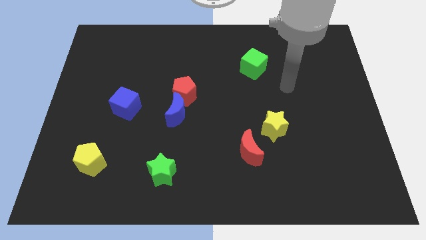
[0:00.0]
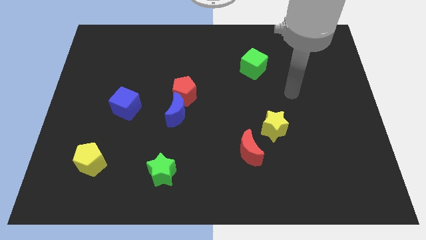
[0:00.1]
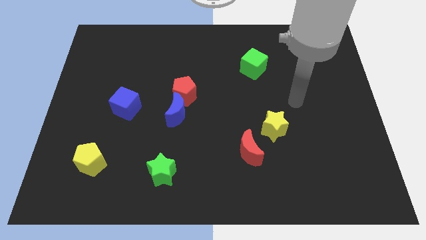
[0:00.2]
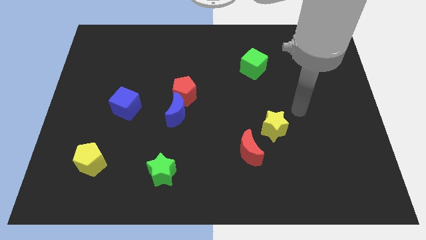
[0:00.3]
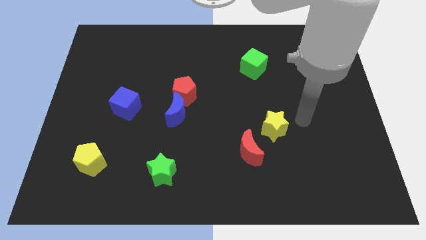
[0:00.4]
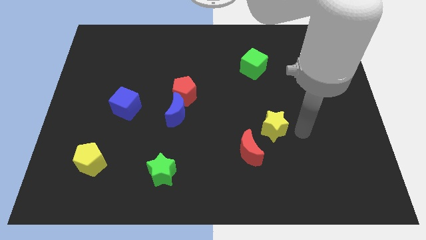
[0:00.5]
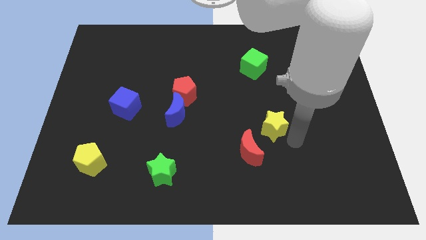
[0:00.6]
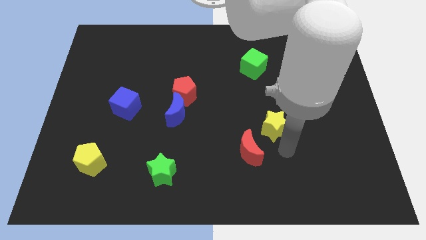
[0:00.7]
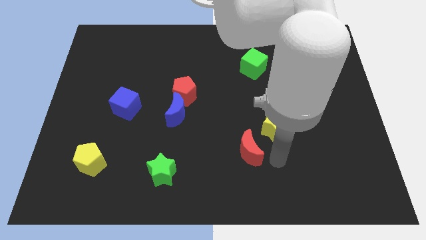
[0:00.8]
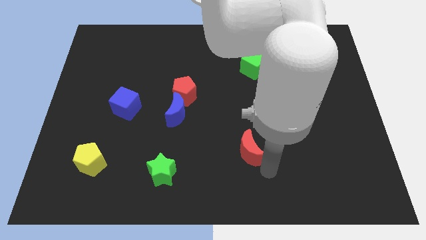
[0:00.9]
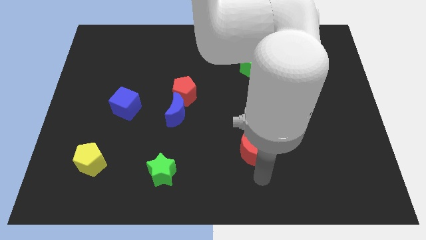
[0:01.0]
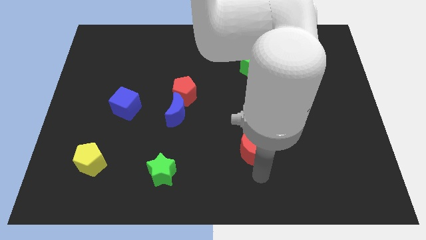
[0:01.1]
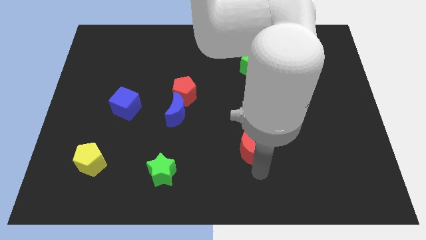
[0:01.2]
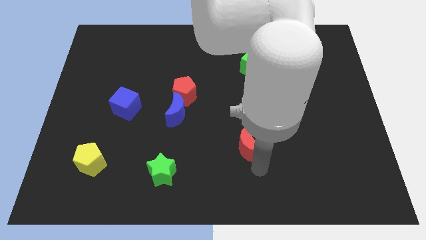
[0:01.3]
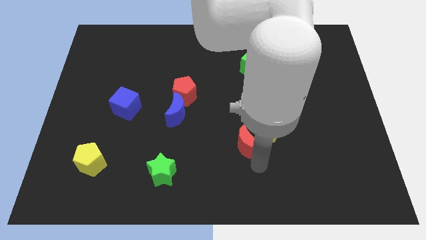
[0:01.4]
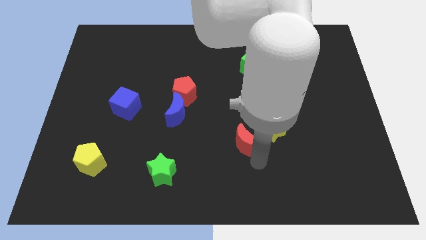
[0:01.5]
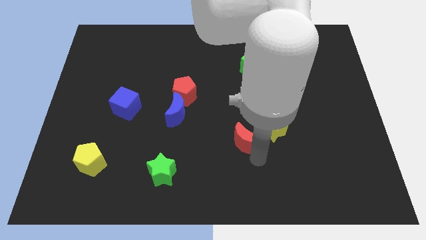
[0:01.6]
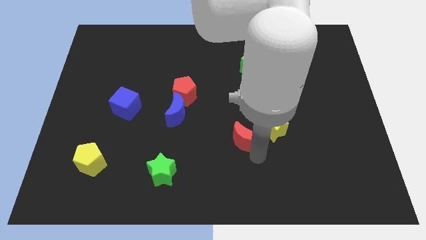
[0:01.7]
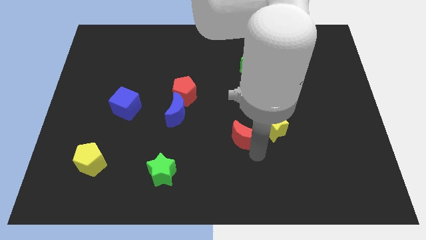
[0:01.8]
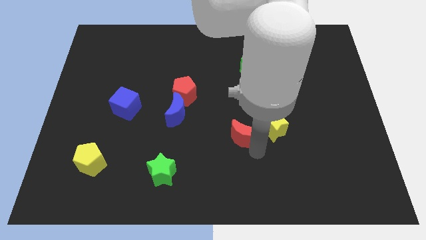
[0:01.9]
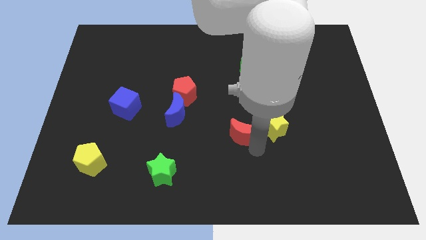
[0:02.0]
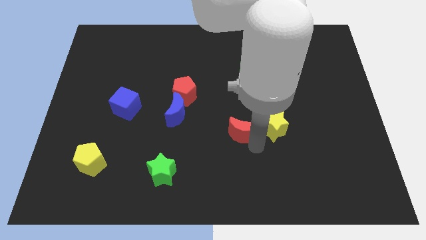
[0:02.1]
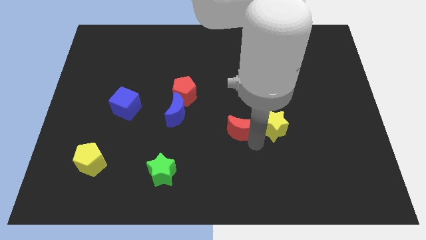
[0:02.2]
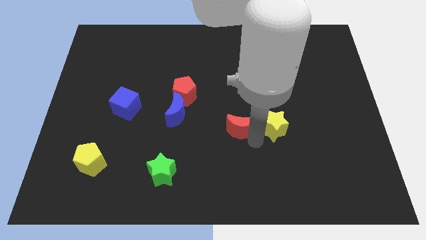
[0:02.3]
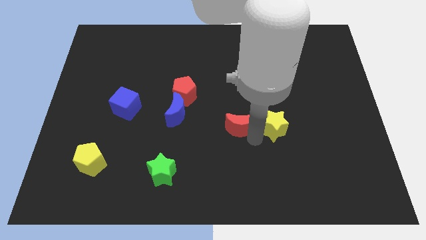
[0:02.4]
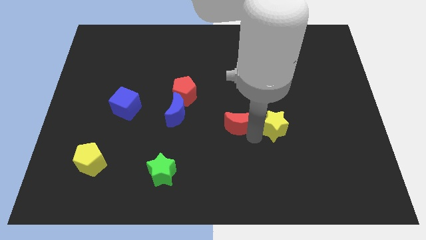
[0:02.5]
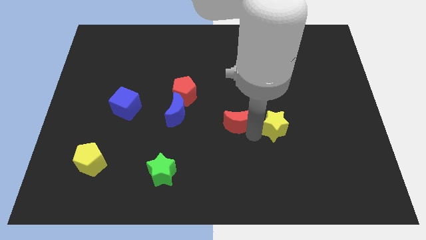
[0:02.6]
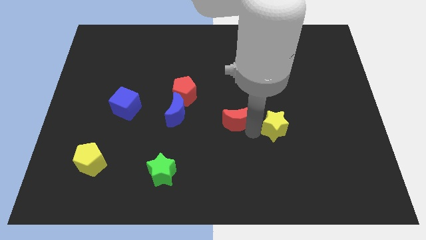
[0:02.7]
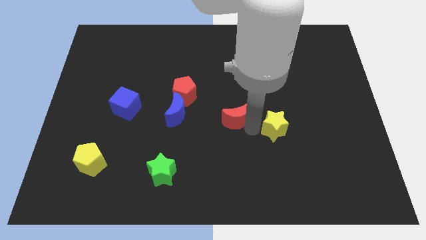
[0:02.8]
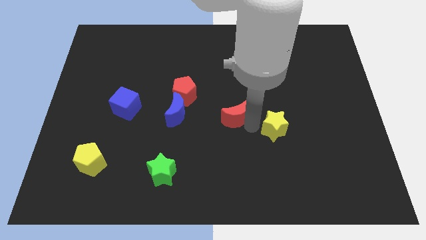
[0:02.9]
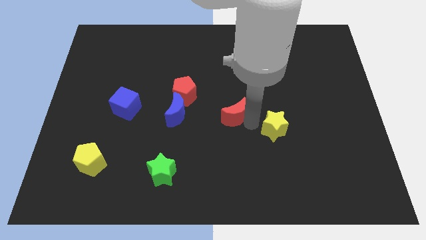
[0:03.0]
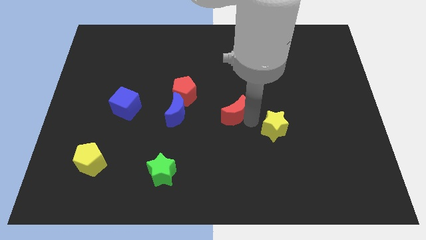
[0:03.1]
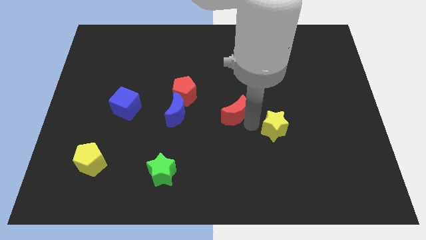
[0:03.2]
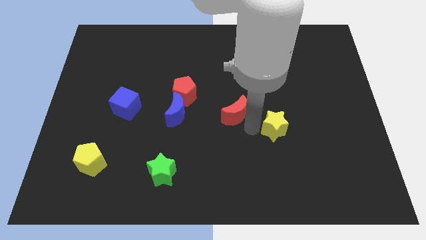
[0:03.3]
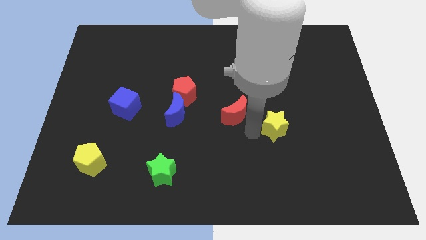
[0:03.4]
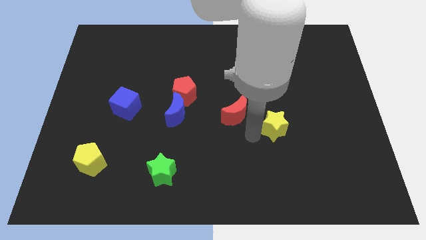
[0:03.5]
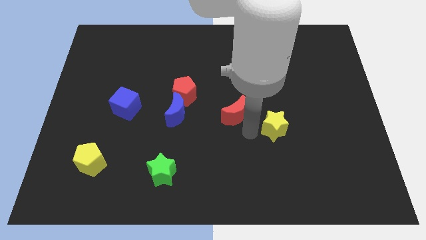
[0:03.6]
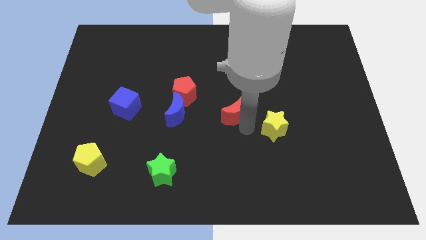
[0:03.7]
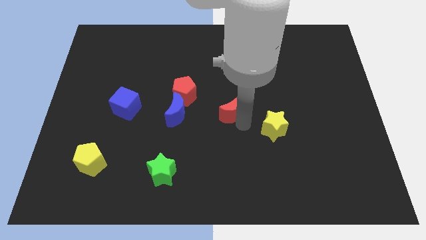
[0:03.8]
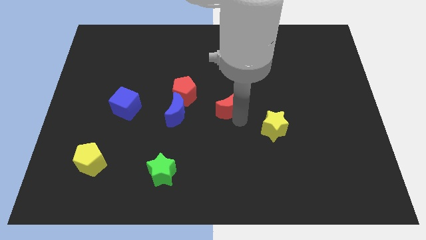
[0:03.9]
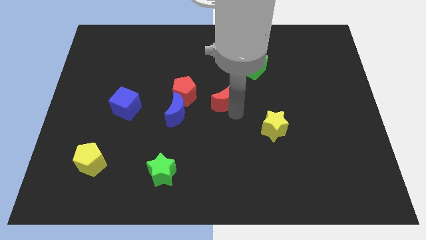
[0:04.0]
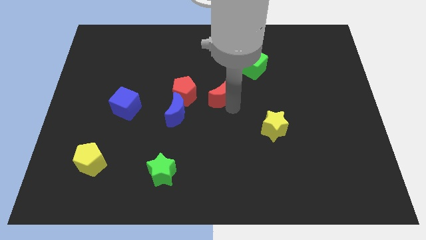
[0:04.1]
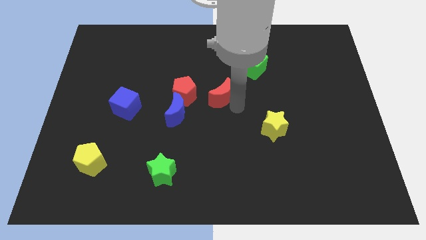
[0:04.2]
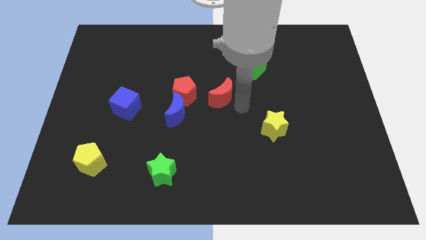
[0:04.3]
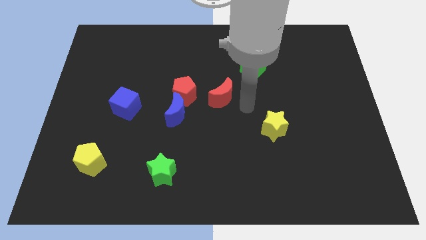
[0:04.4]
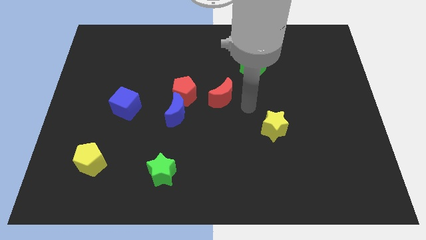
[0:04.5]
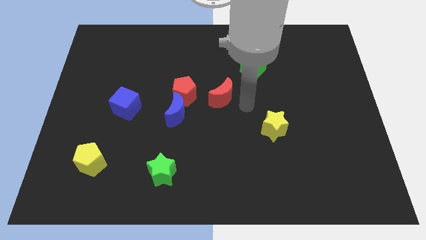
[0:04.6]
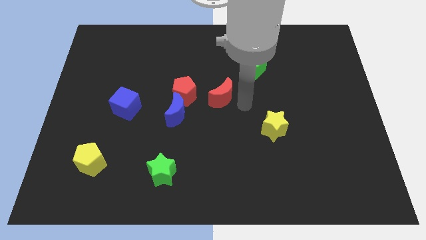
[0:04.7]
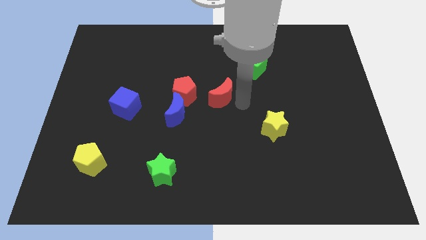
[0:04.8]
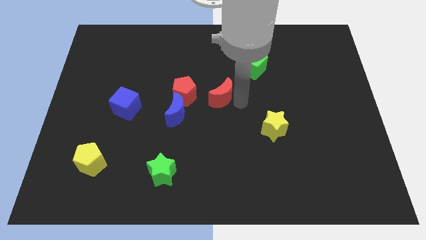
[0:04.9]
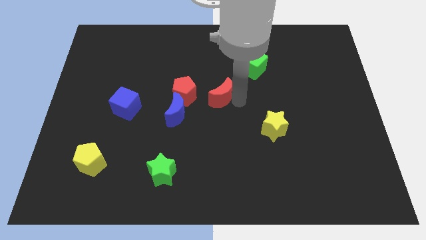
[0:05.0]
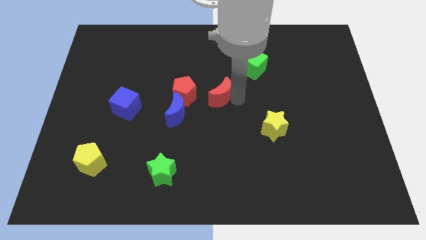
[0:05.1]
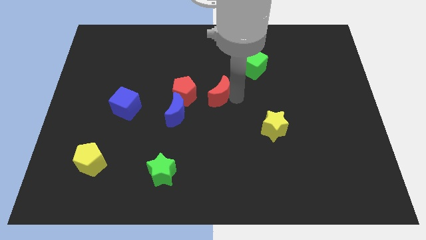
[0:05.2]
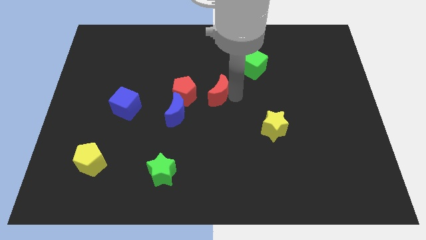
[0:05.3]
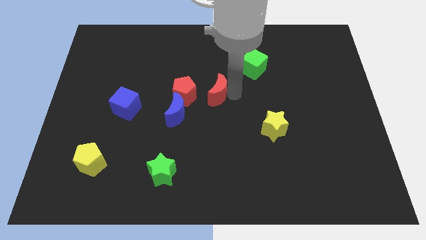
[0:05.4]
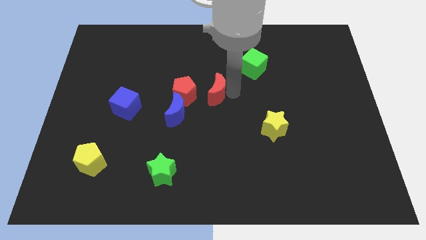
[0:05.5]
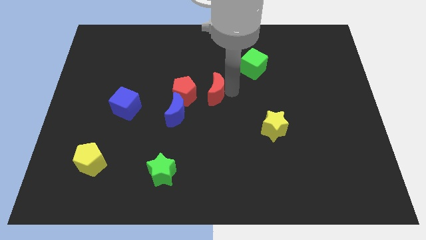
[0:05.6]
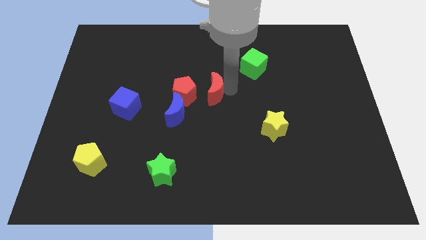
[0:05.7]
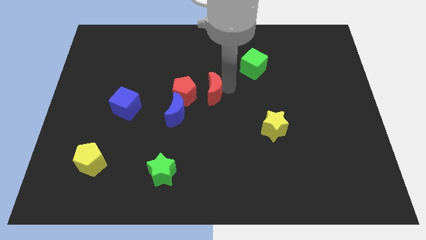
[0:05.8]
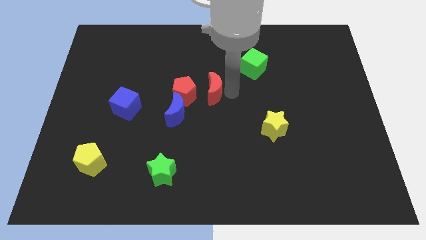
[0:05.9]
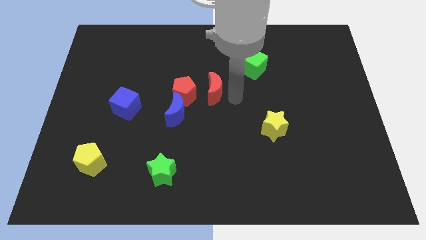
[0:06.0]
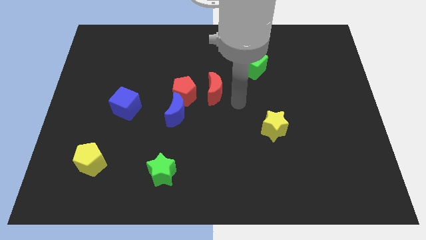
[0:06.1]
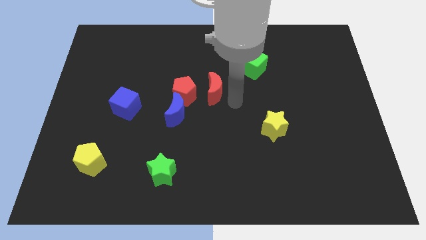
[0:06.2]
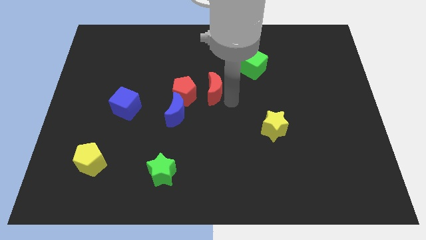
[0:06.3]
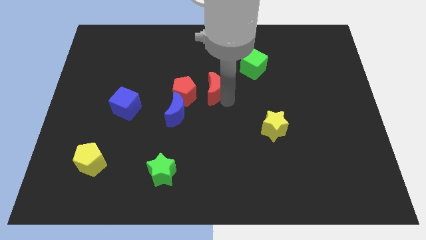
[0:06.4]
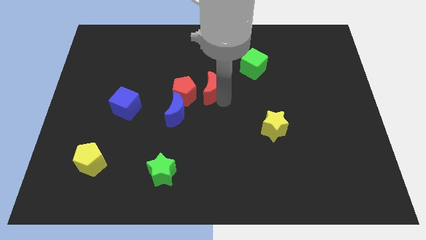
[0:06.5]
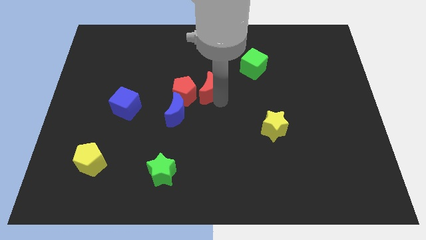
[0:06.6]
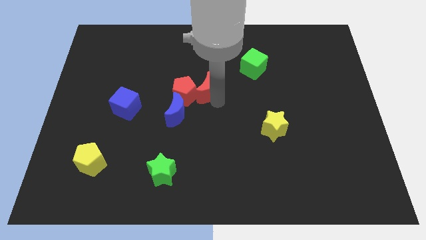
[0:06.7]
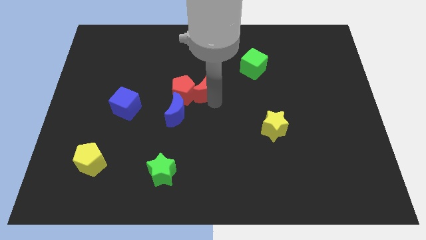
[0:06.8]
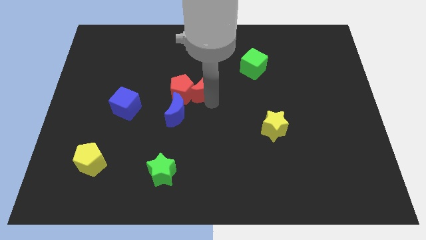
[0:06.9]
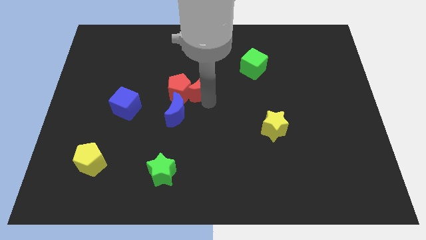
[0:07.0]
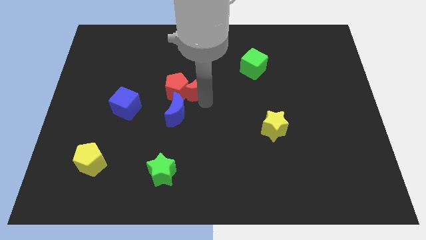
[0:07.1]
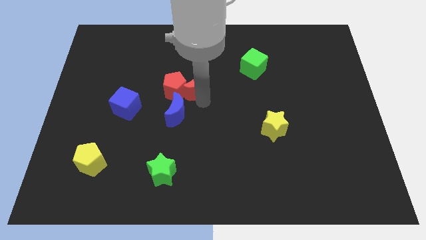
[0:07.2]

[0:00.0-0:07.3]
move the red moon up and to the left diagonally

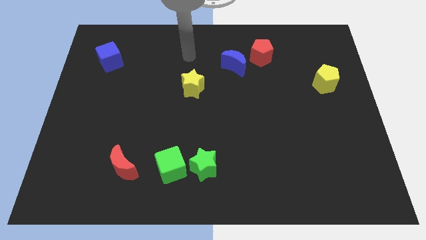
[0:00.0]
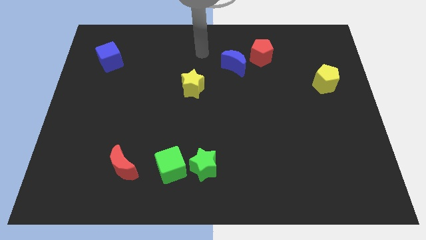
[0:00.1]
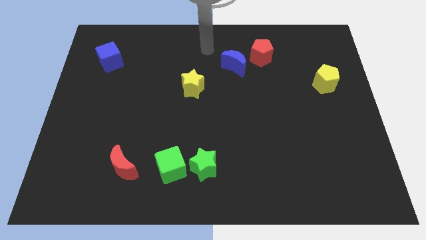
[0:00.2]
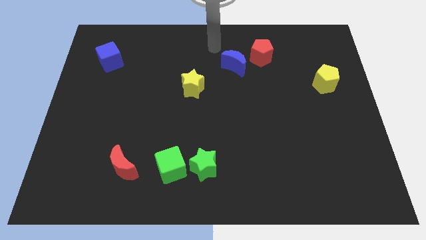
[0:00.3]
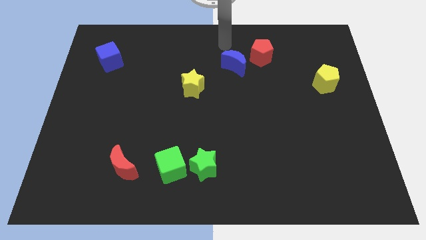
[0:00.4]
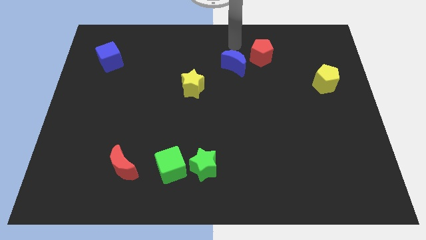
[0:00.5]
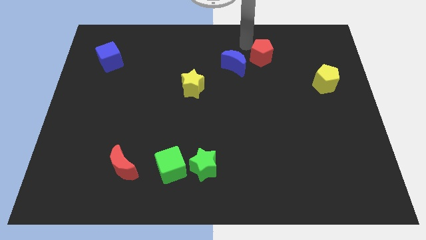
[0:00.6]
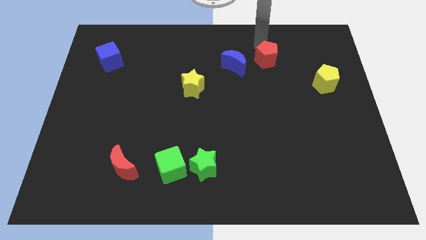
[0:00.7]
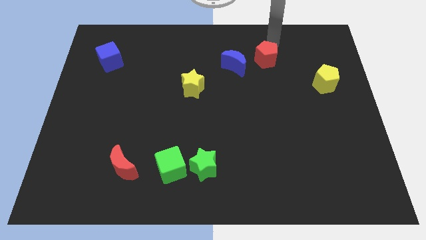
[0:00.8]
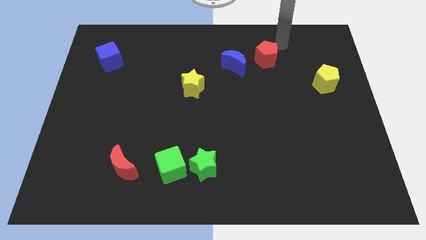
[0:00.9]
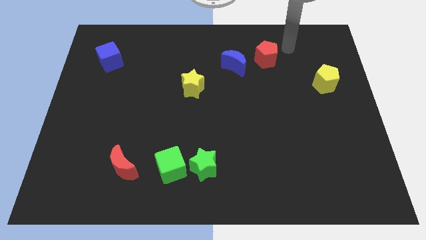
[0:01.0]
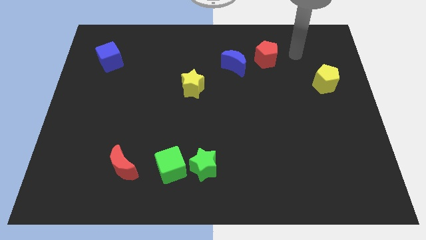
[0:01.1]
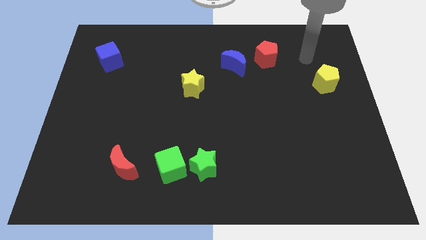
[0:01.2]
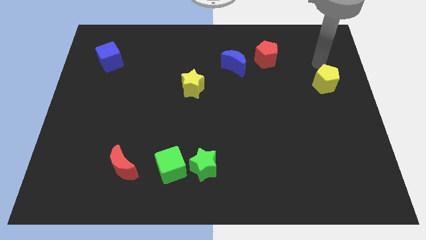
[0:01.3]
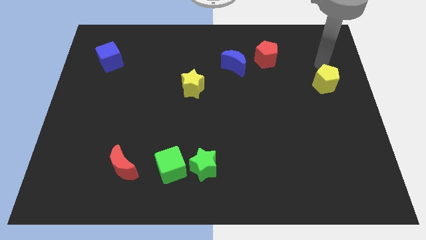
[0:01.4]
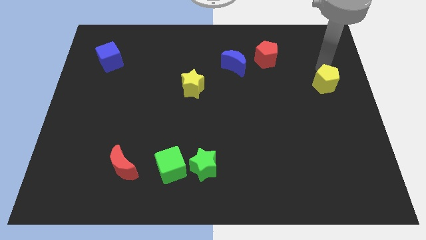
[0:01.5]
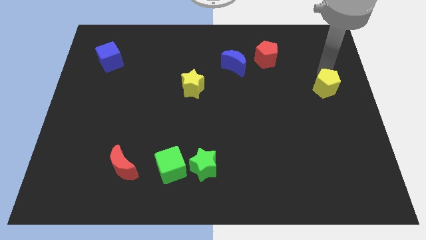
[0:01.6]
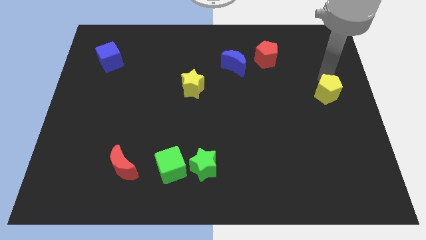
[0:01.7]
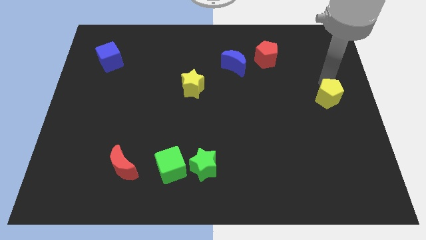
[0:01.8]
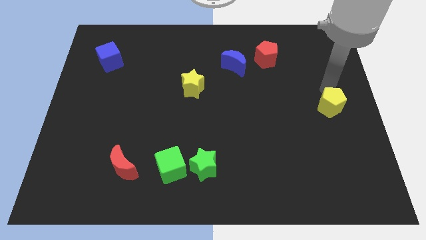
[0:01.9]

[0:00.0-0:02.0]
push the yellow pentagon a little down
